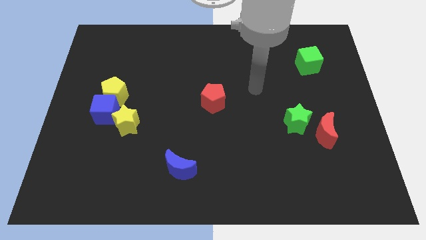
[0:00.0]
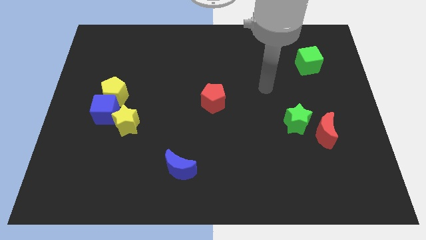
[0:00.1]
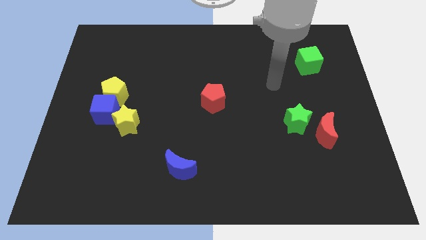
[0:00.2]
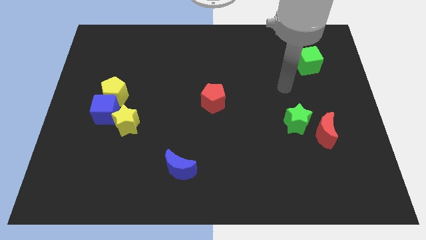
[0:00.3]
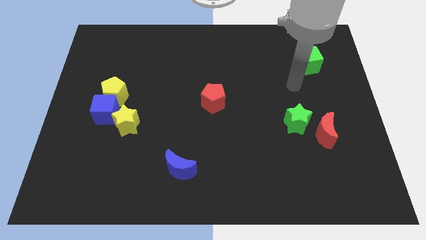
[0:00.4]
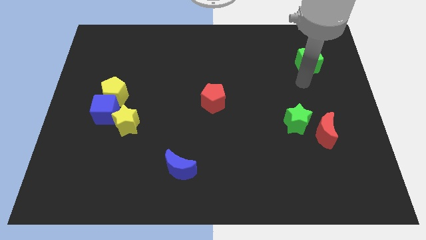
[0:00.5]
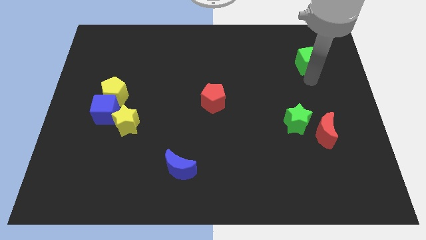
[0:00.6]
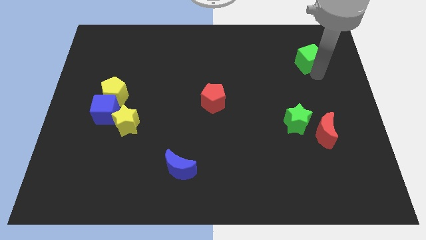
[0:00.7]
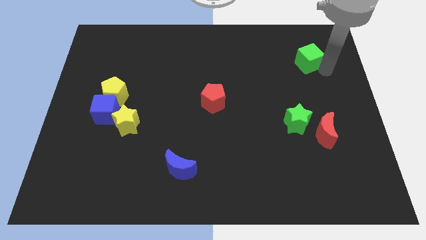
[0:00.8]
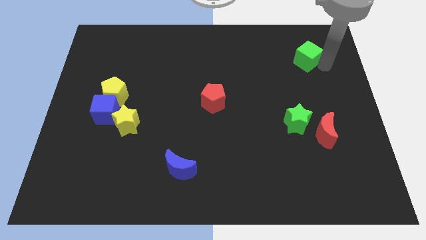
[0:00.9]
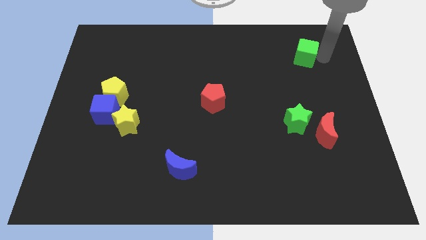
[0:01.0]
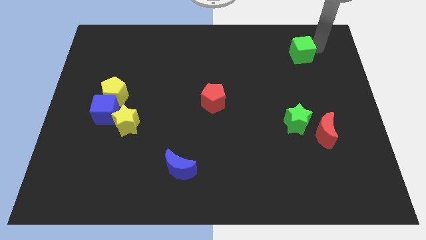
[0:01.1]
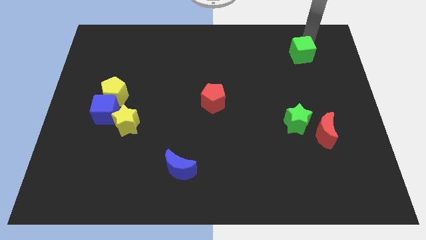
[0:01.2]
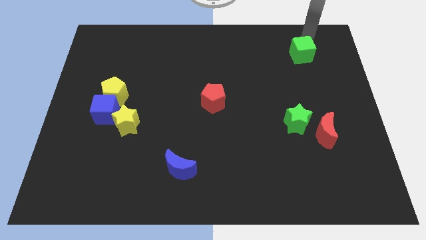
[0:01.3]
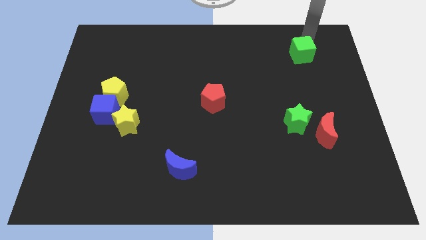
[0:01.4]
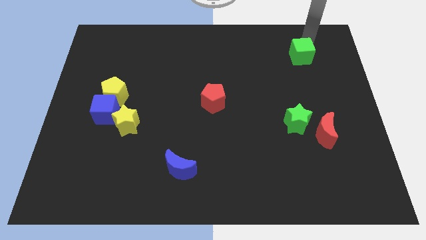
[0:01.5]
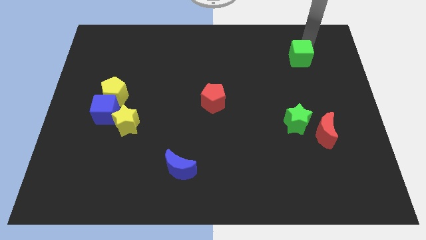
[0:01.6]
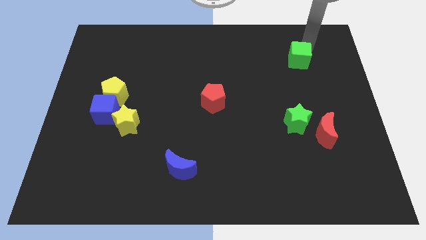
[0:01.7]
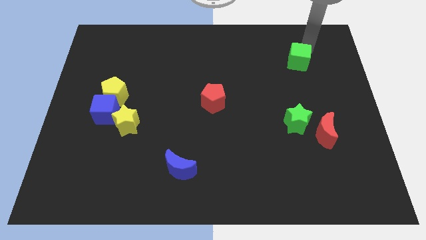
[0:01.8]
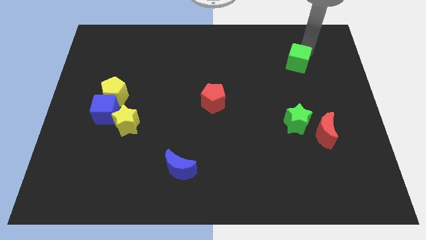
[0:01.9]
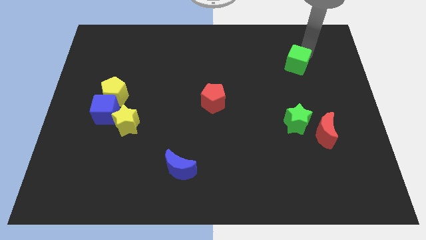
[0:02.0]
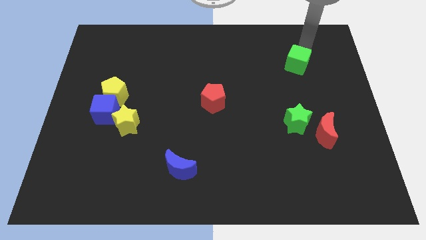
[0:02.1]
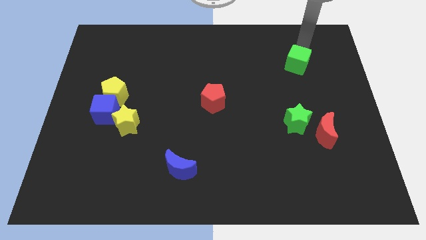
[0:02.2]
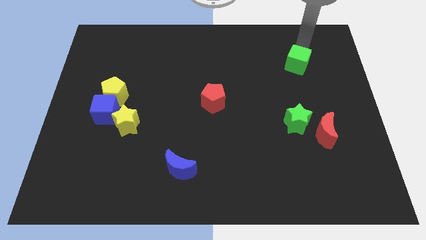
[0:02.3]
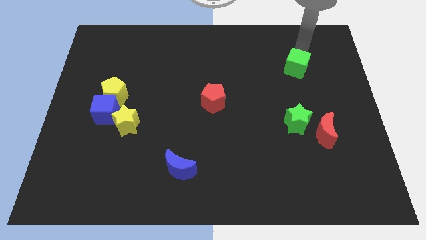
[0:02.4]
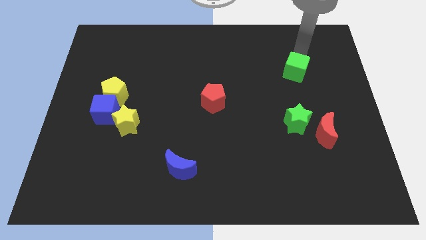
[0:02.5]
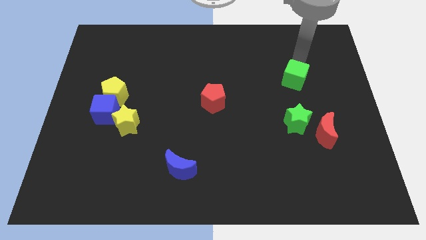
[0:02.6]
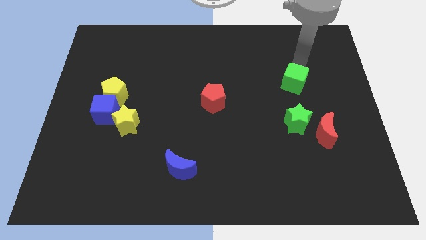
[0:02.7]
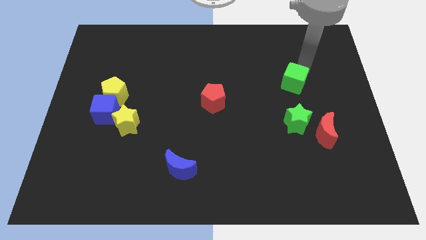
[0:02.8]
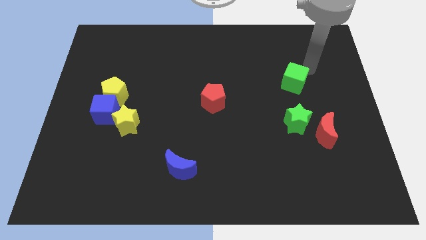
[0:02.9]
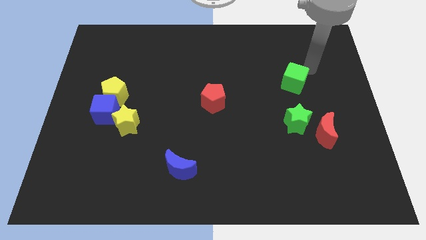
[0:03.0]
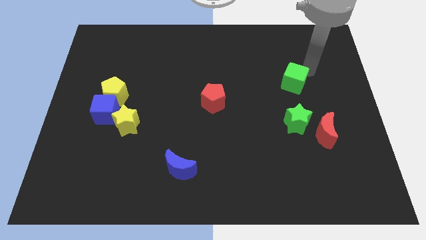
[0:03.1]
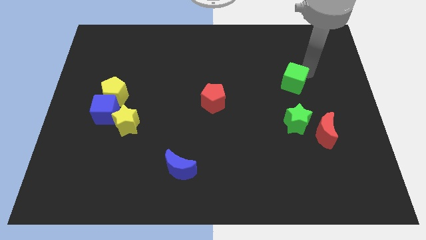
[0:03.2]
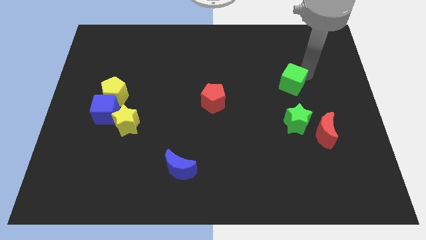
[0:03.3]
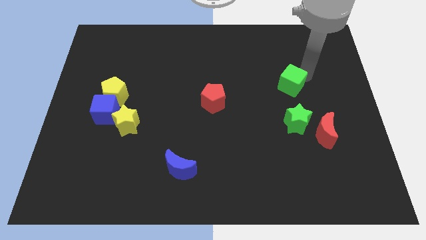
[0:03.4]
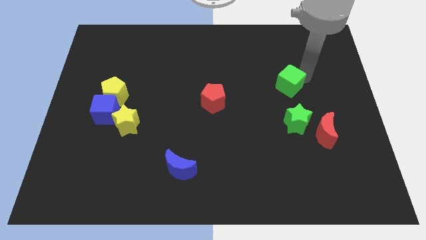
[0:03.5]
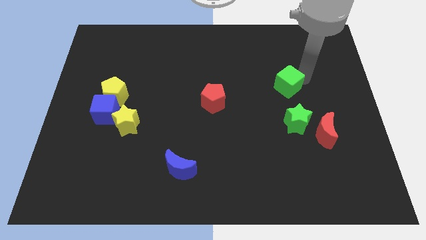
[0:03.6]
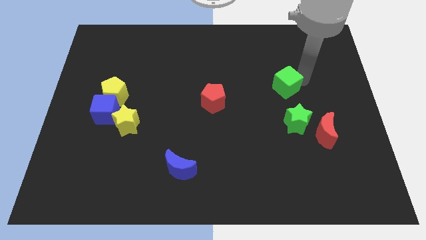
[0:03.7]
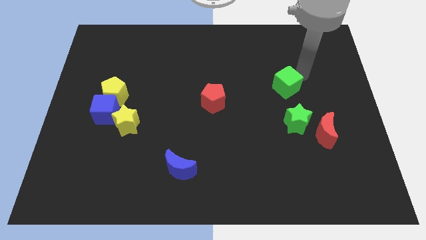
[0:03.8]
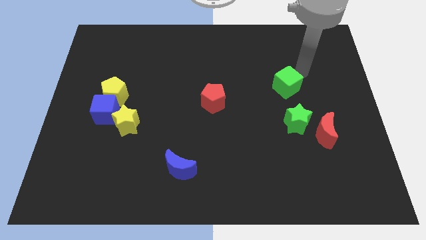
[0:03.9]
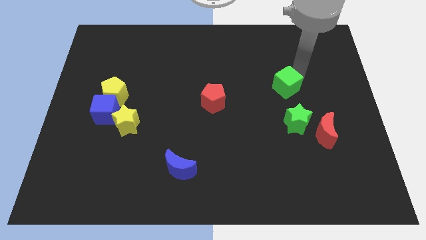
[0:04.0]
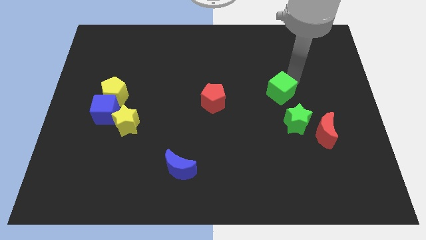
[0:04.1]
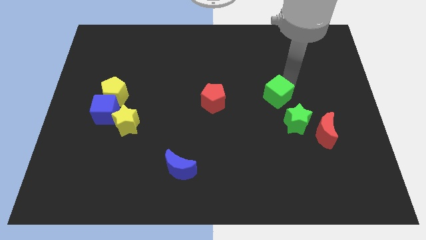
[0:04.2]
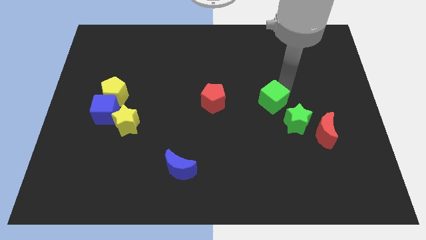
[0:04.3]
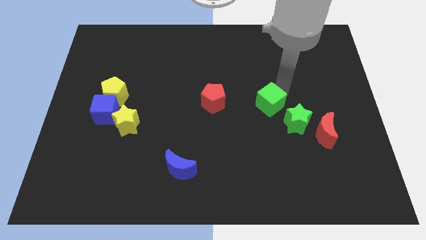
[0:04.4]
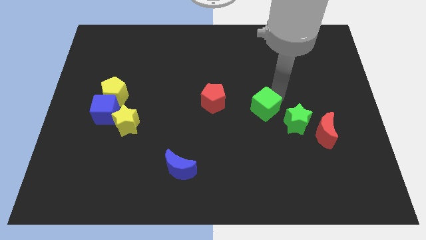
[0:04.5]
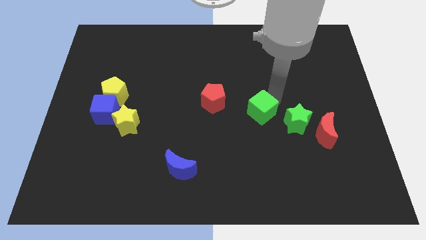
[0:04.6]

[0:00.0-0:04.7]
push the green cube down and then to the left

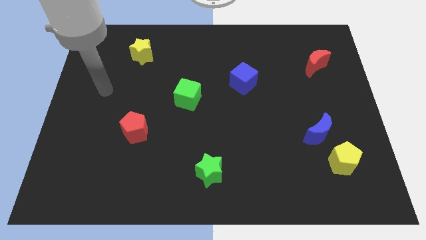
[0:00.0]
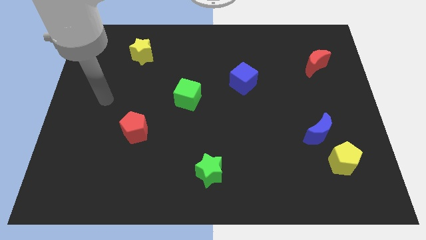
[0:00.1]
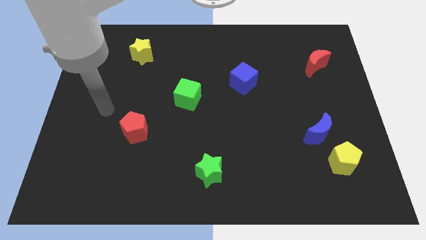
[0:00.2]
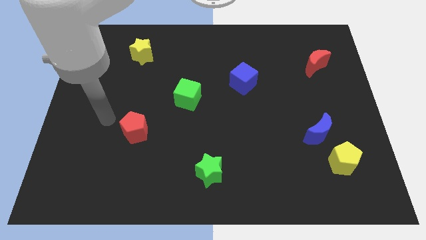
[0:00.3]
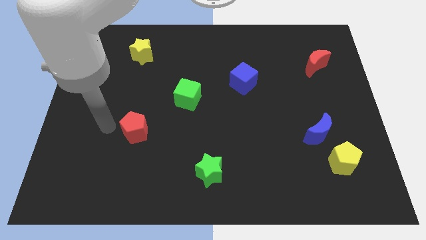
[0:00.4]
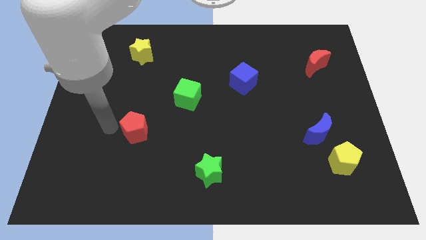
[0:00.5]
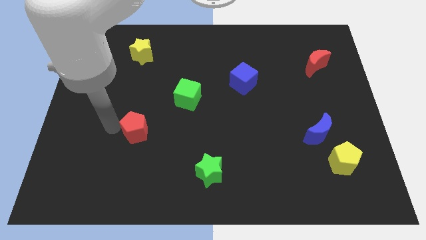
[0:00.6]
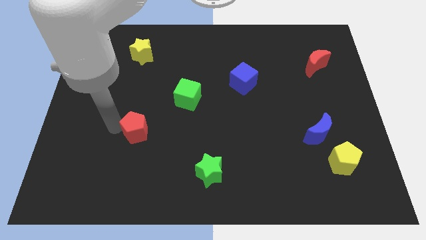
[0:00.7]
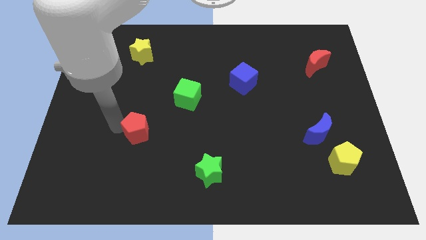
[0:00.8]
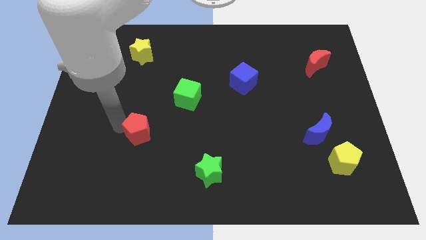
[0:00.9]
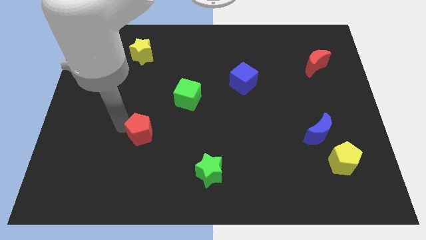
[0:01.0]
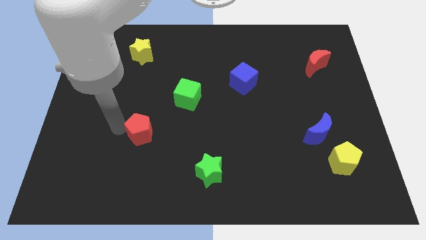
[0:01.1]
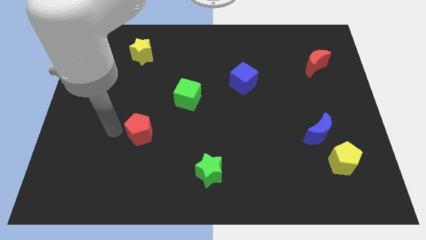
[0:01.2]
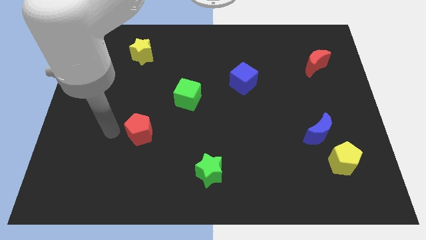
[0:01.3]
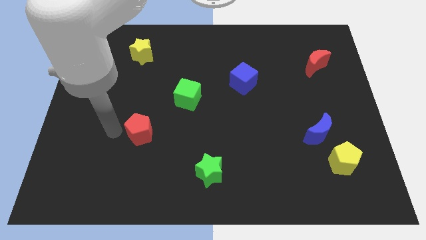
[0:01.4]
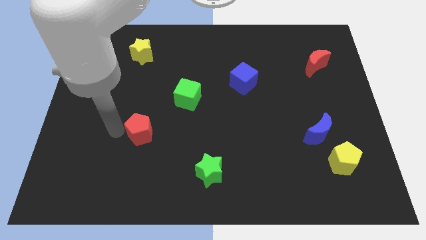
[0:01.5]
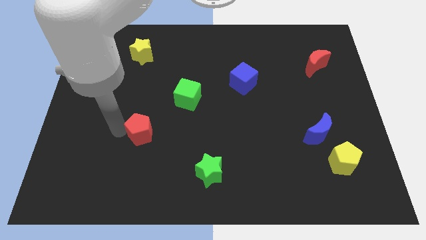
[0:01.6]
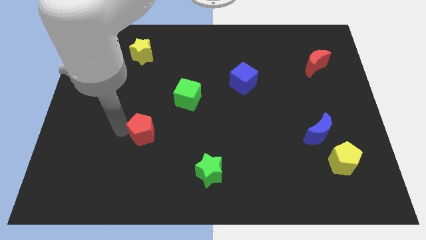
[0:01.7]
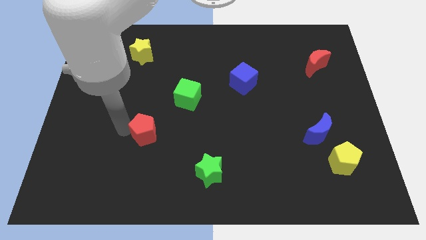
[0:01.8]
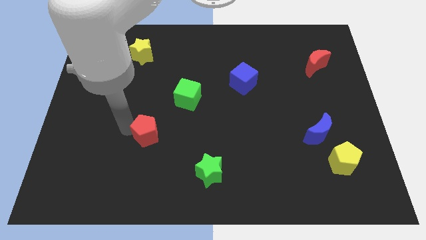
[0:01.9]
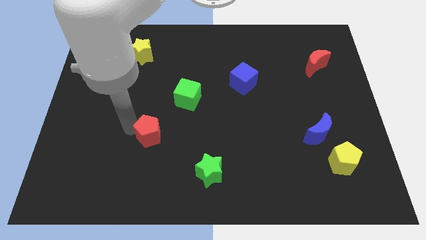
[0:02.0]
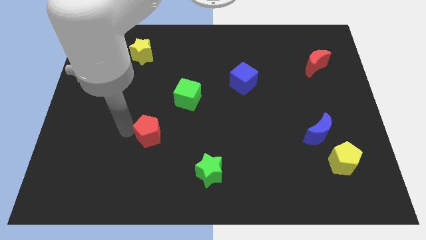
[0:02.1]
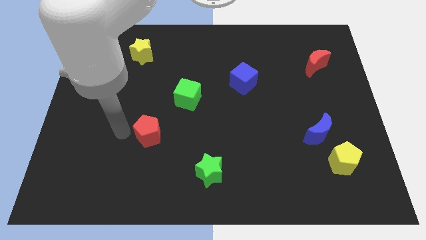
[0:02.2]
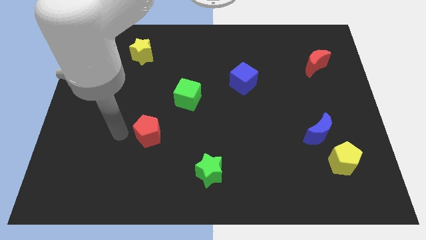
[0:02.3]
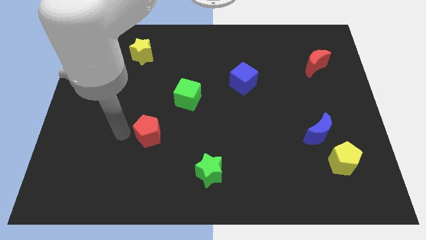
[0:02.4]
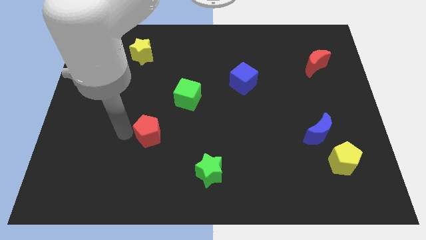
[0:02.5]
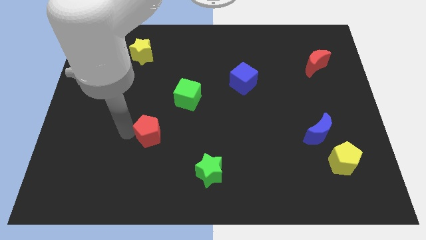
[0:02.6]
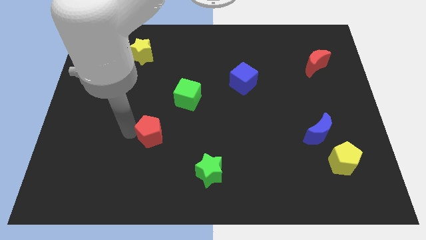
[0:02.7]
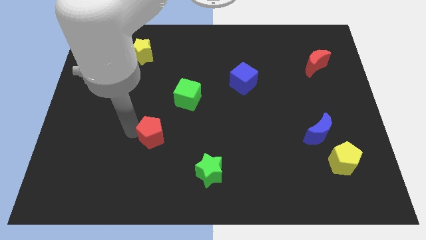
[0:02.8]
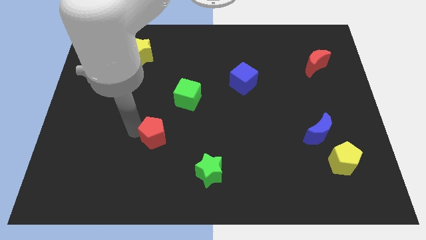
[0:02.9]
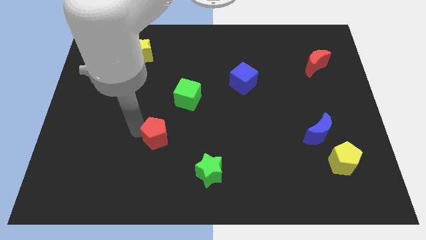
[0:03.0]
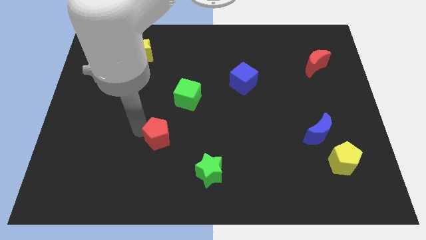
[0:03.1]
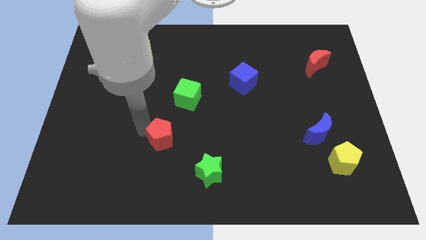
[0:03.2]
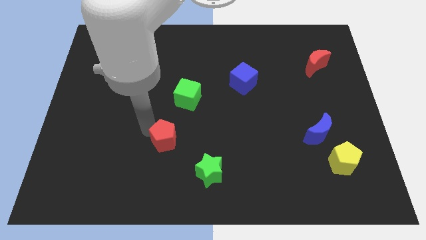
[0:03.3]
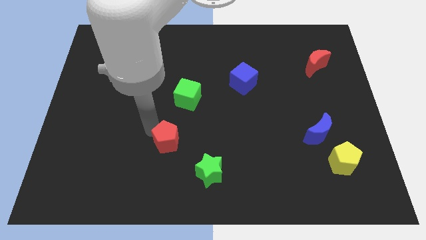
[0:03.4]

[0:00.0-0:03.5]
slightly slide the red pentagon right

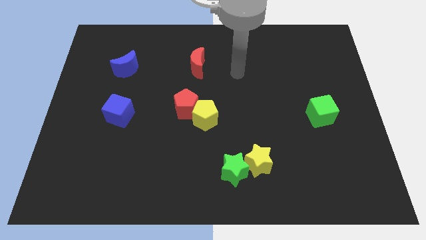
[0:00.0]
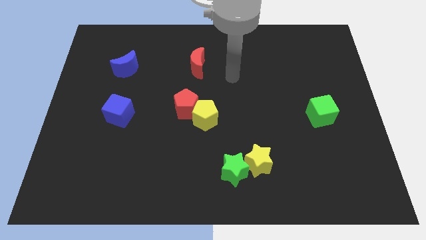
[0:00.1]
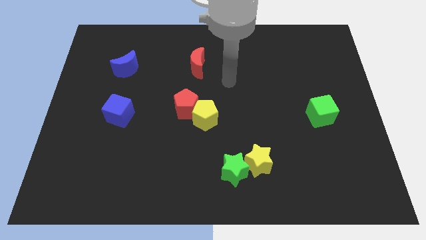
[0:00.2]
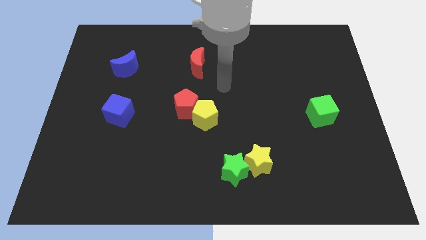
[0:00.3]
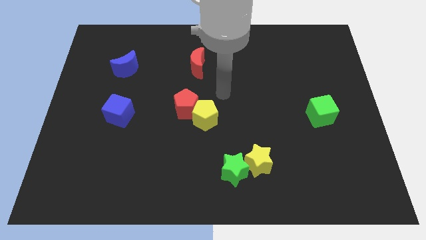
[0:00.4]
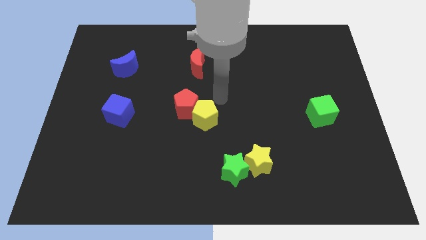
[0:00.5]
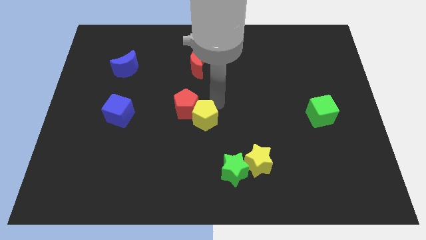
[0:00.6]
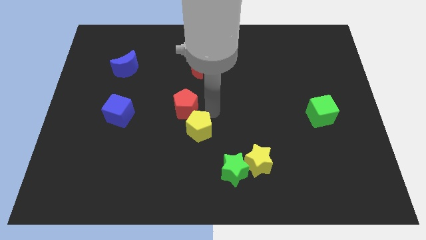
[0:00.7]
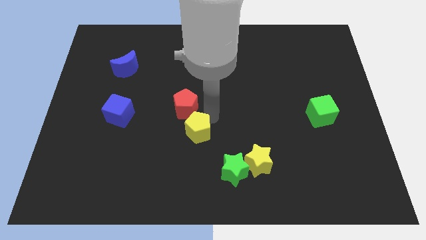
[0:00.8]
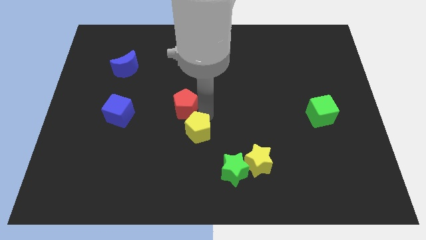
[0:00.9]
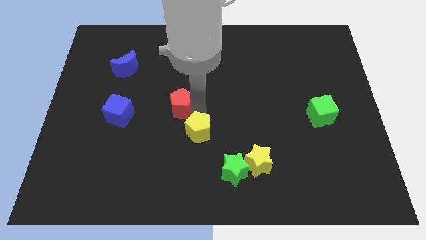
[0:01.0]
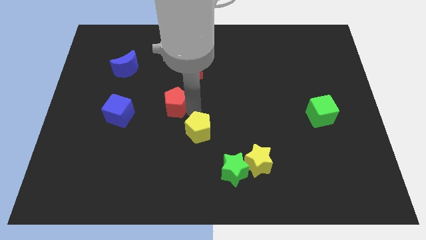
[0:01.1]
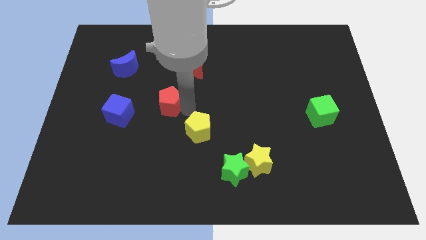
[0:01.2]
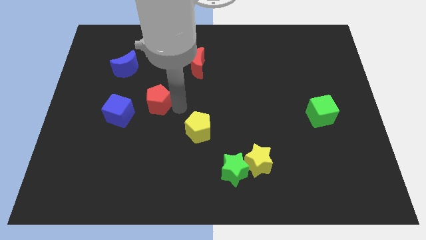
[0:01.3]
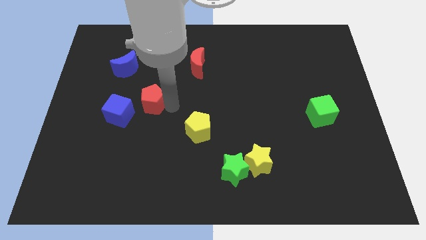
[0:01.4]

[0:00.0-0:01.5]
slide the red pentagon a little to the left
